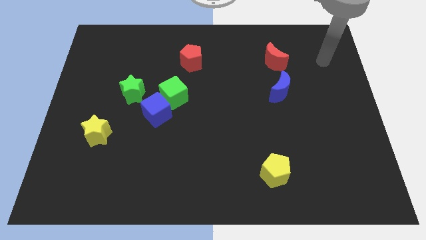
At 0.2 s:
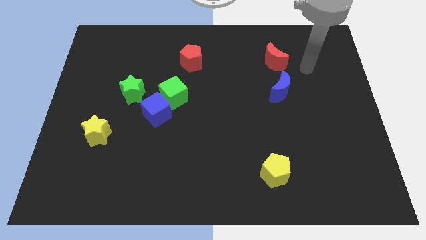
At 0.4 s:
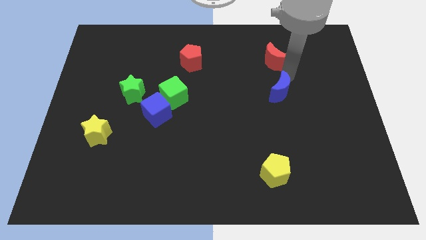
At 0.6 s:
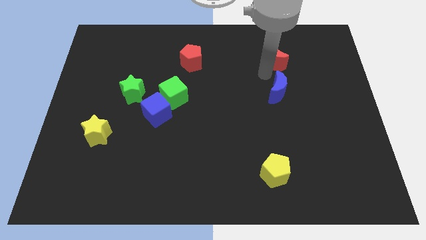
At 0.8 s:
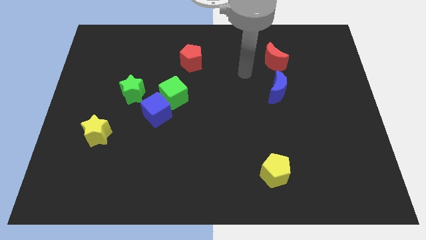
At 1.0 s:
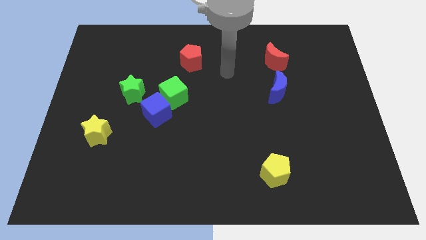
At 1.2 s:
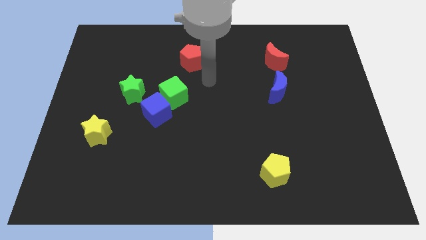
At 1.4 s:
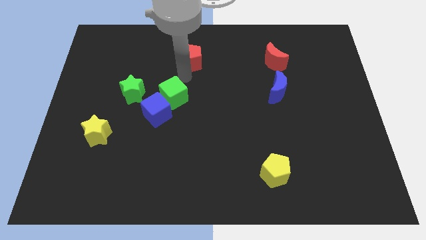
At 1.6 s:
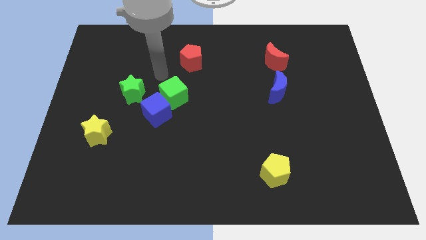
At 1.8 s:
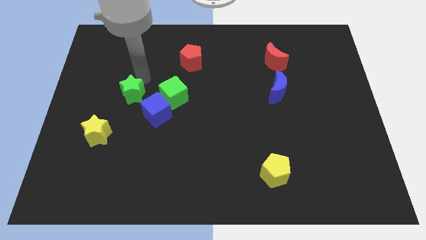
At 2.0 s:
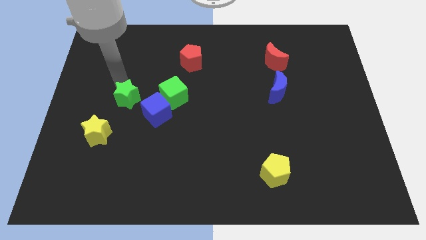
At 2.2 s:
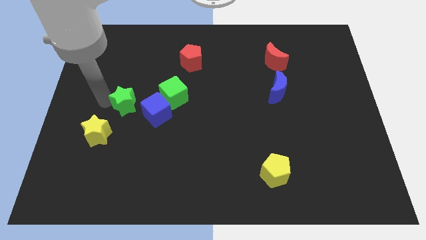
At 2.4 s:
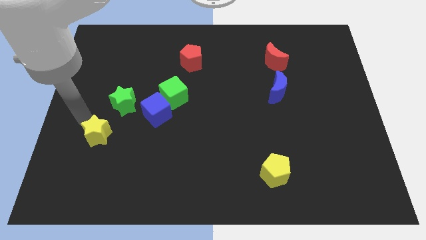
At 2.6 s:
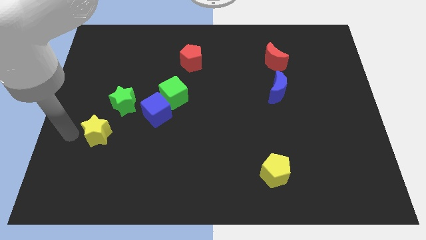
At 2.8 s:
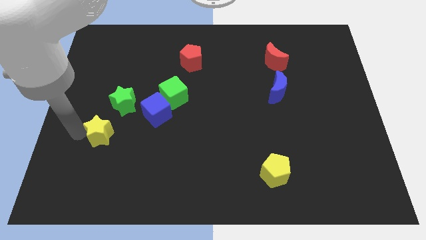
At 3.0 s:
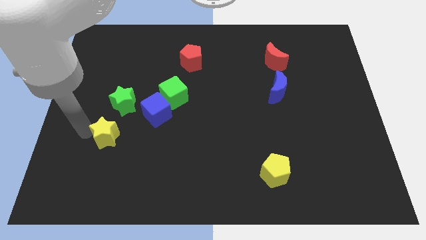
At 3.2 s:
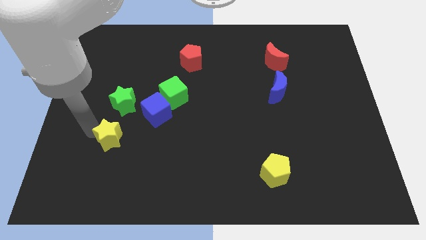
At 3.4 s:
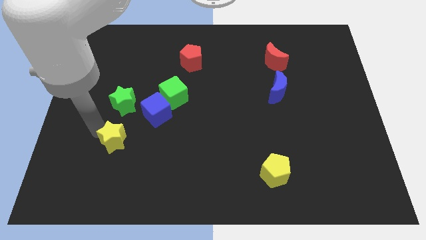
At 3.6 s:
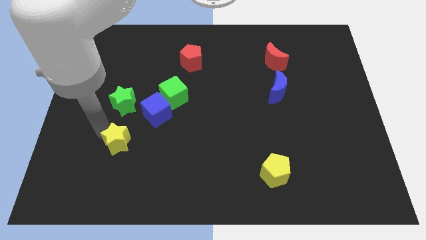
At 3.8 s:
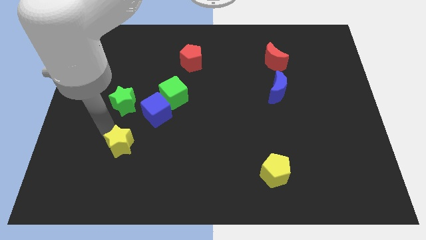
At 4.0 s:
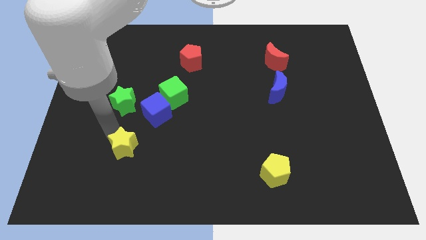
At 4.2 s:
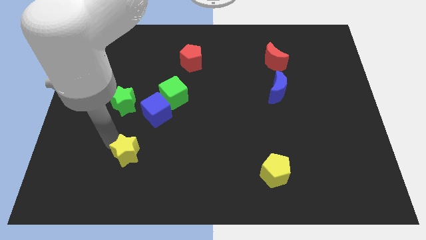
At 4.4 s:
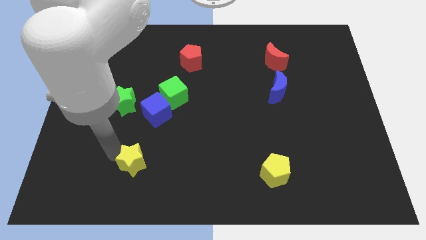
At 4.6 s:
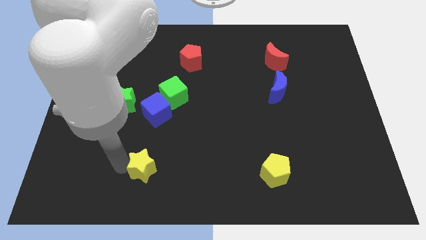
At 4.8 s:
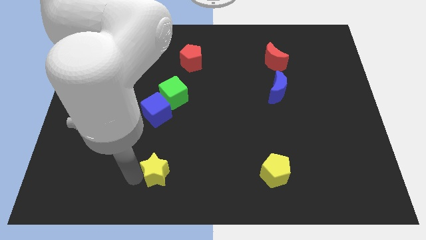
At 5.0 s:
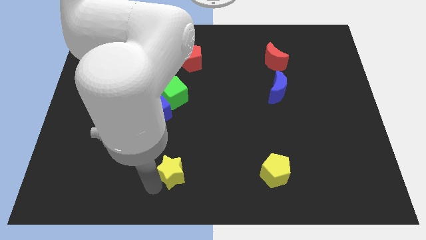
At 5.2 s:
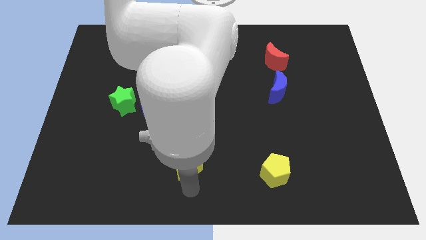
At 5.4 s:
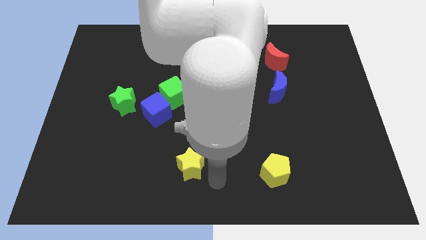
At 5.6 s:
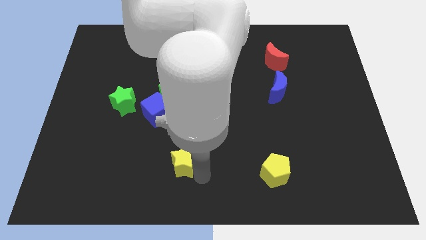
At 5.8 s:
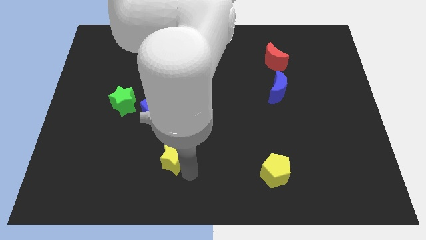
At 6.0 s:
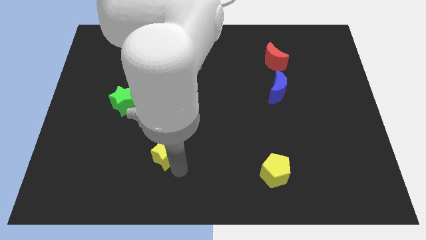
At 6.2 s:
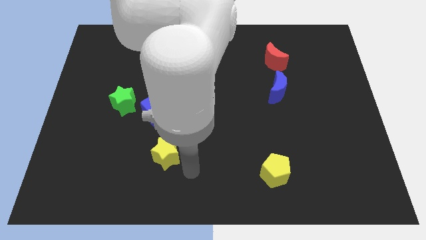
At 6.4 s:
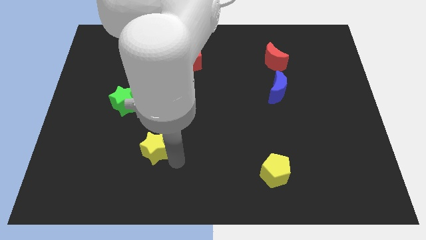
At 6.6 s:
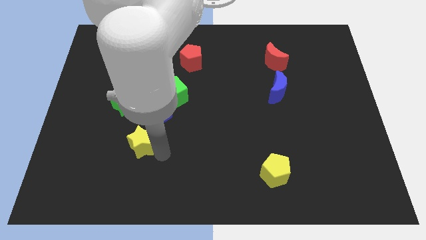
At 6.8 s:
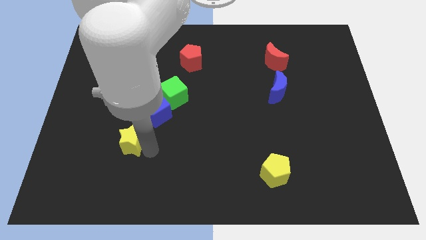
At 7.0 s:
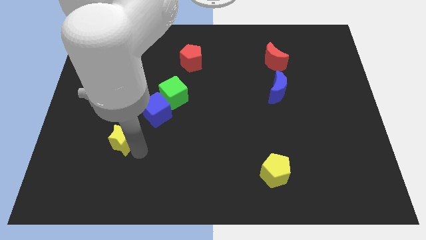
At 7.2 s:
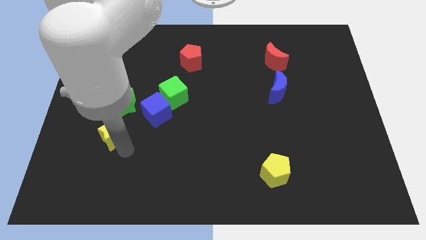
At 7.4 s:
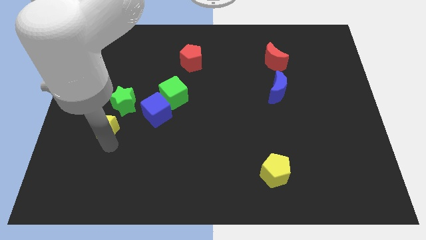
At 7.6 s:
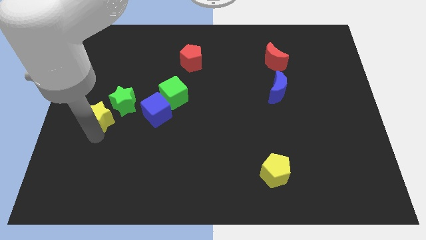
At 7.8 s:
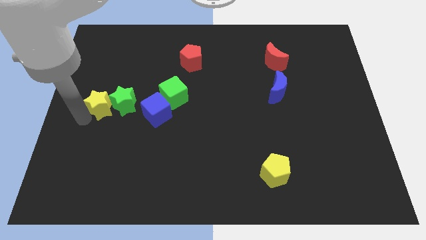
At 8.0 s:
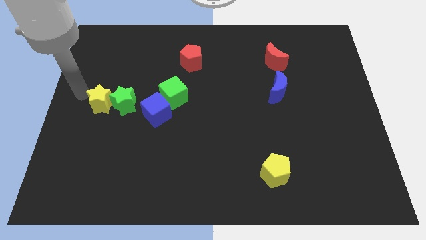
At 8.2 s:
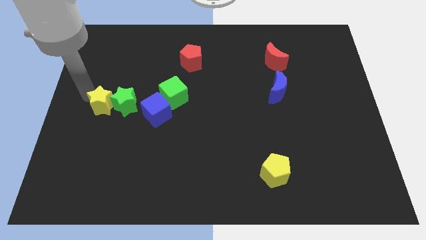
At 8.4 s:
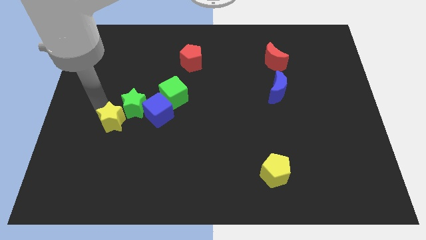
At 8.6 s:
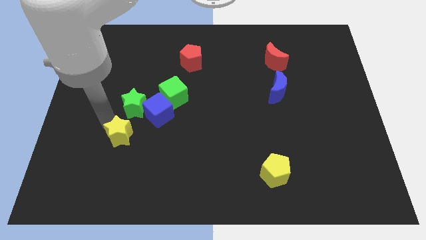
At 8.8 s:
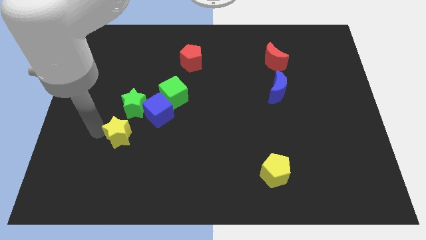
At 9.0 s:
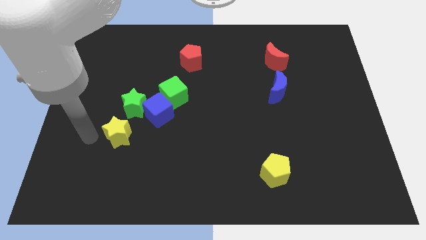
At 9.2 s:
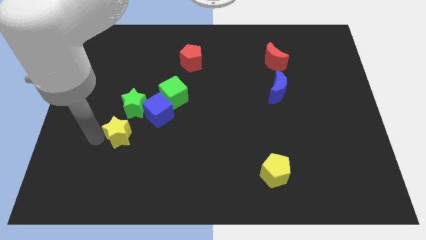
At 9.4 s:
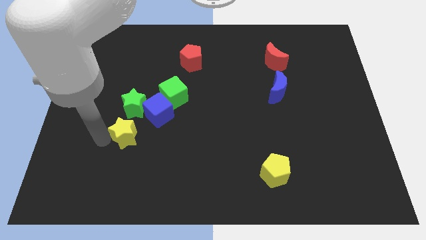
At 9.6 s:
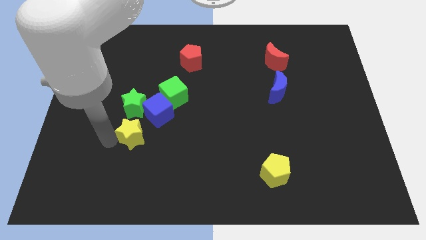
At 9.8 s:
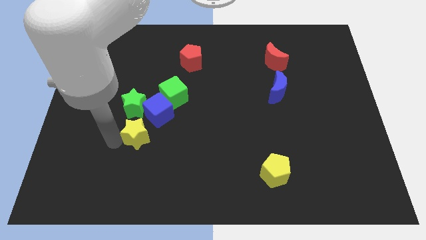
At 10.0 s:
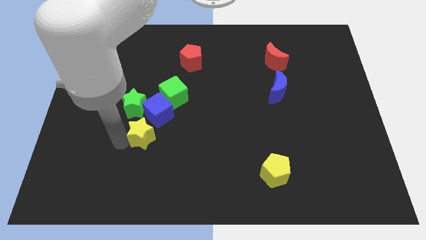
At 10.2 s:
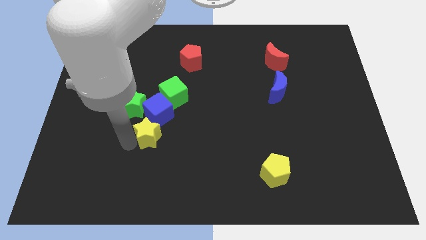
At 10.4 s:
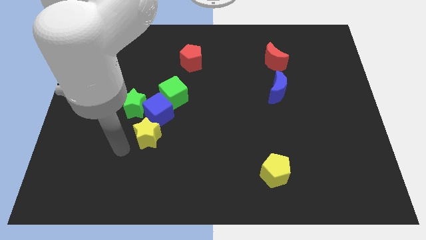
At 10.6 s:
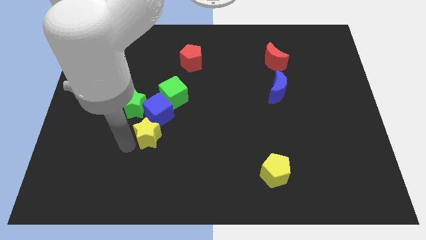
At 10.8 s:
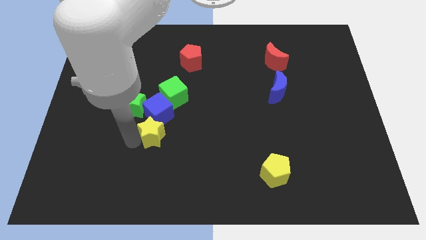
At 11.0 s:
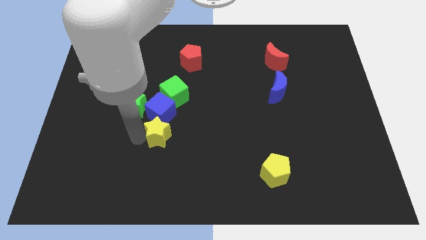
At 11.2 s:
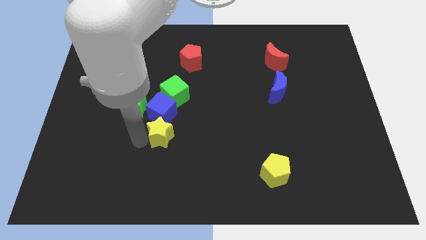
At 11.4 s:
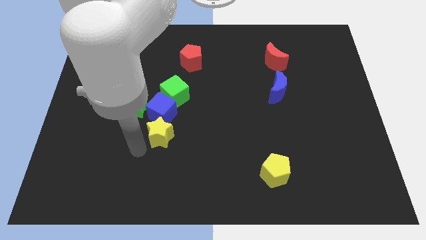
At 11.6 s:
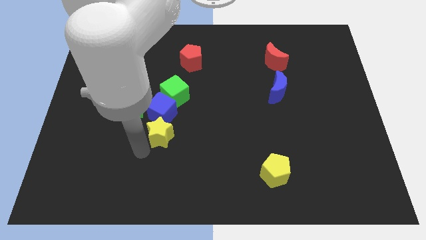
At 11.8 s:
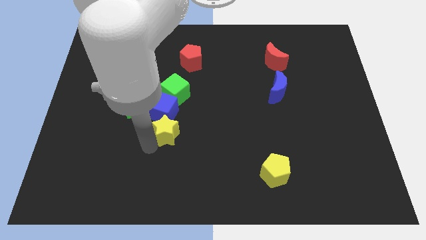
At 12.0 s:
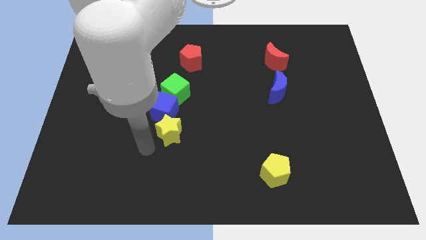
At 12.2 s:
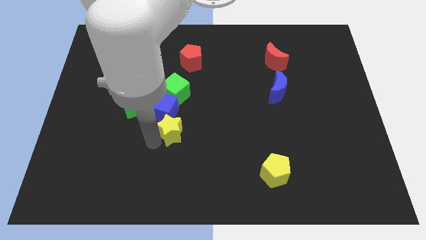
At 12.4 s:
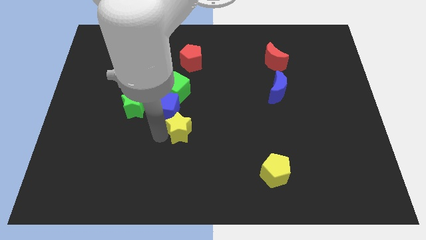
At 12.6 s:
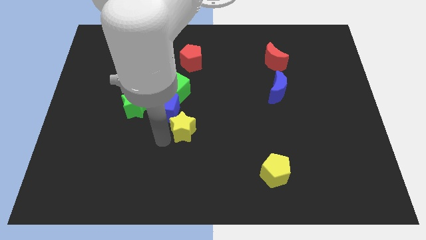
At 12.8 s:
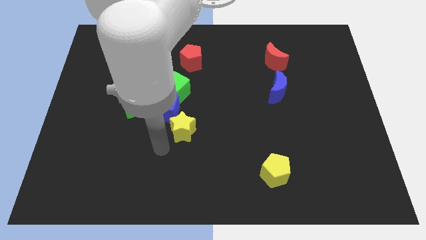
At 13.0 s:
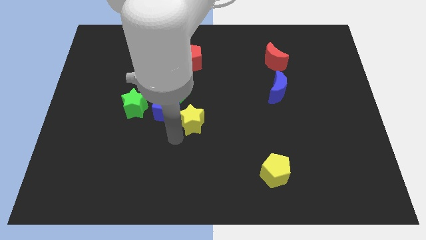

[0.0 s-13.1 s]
slide the yellow star to the right of the blue cube
